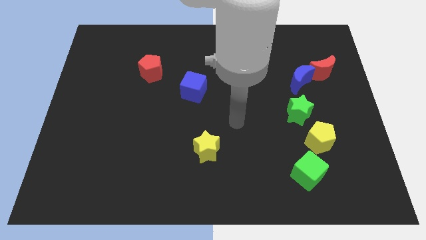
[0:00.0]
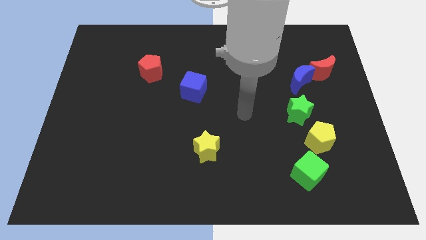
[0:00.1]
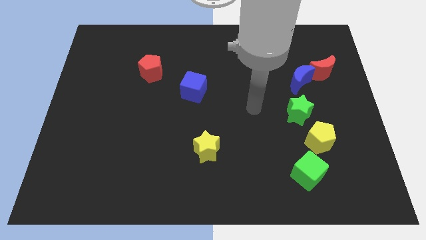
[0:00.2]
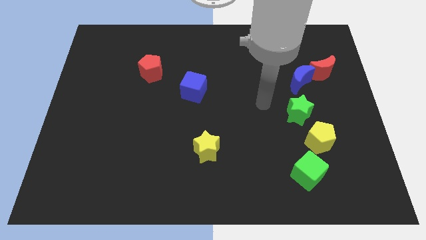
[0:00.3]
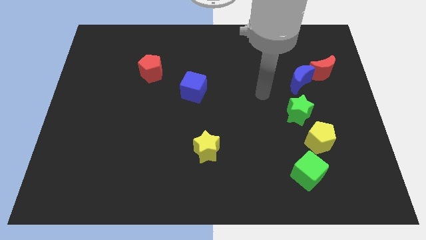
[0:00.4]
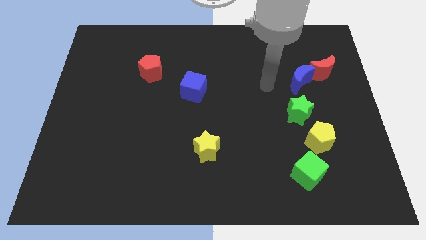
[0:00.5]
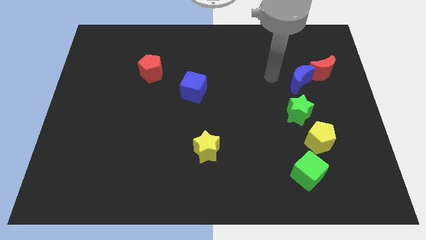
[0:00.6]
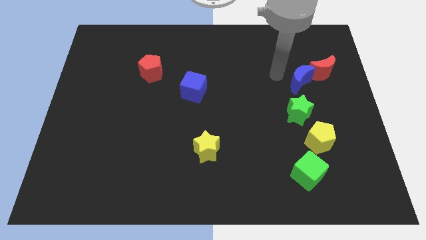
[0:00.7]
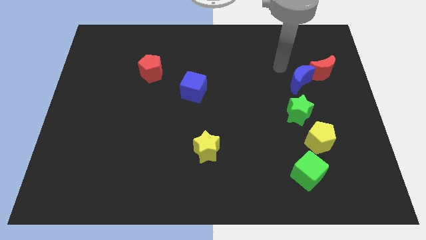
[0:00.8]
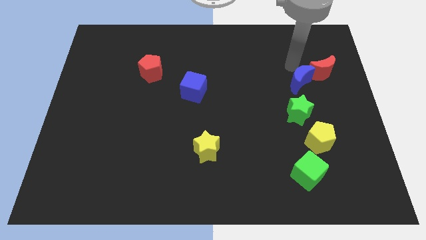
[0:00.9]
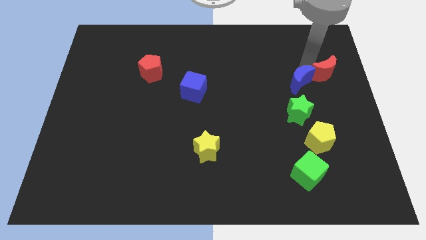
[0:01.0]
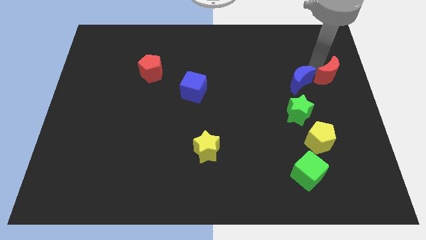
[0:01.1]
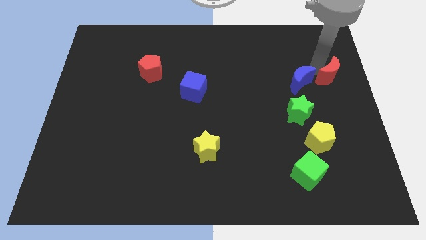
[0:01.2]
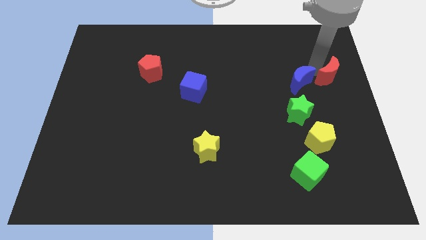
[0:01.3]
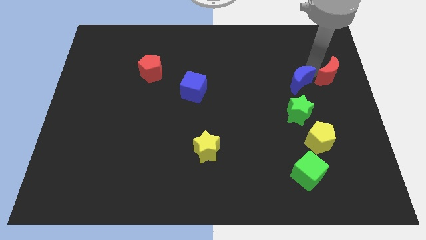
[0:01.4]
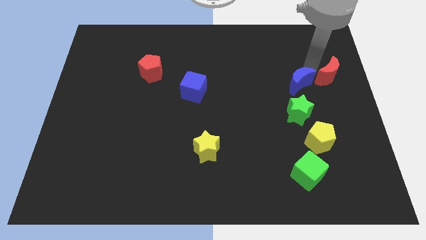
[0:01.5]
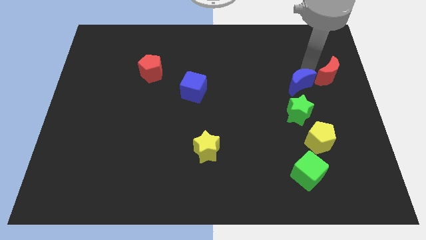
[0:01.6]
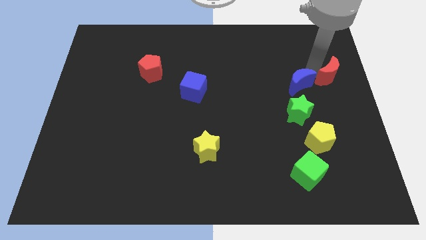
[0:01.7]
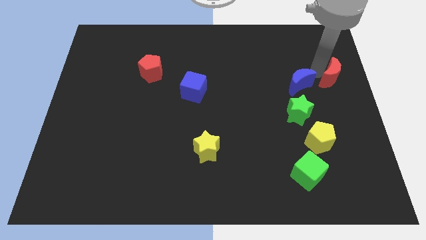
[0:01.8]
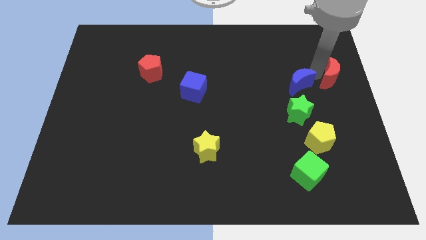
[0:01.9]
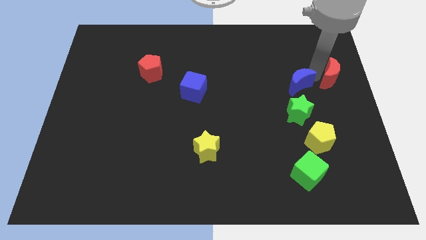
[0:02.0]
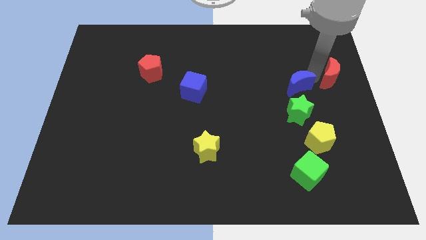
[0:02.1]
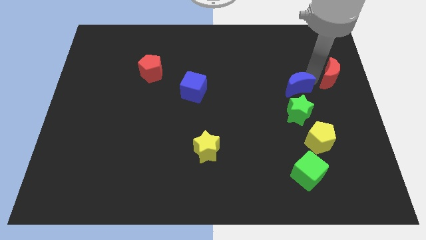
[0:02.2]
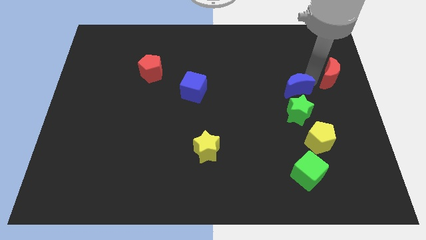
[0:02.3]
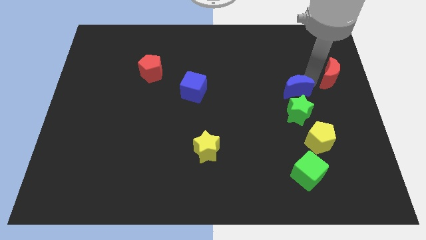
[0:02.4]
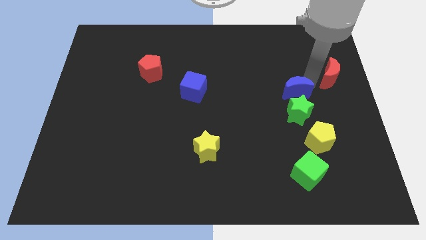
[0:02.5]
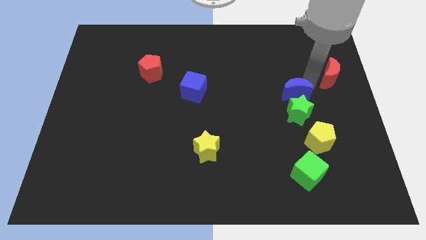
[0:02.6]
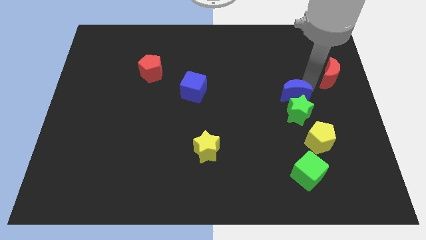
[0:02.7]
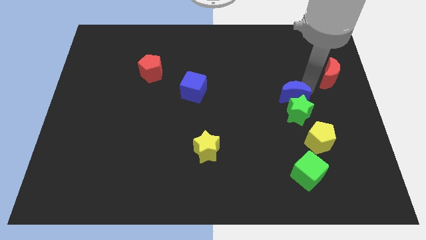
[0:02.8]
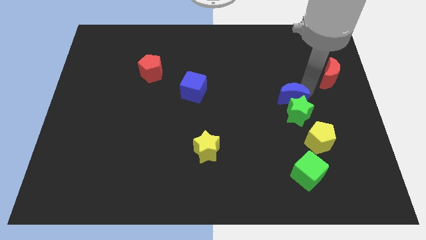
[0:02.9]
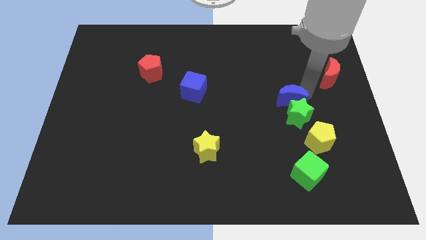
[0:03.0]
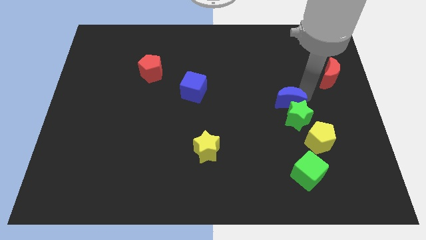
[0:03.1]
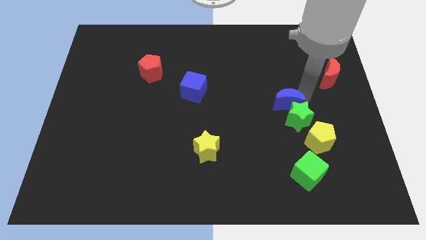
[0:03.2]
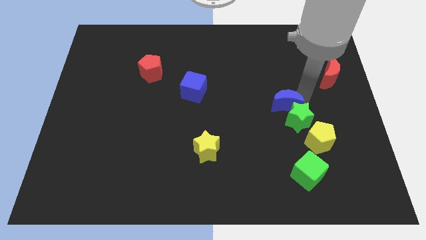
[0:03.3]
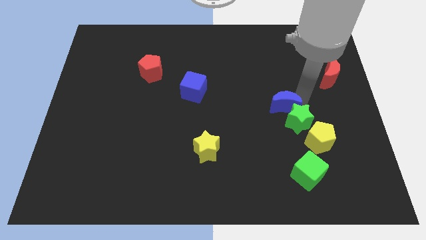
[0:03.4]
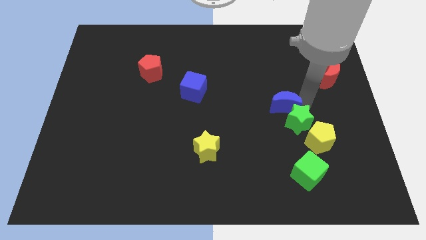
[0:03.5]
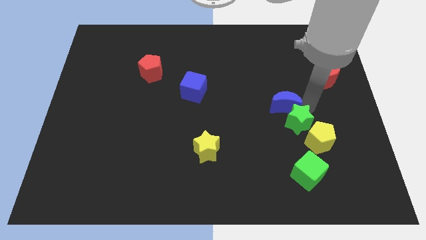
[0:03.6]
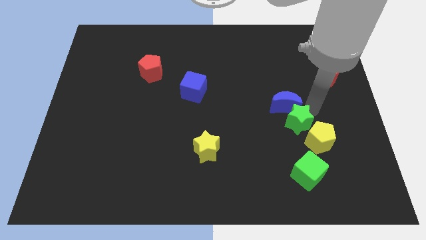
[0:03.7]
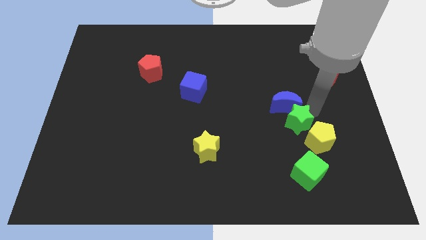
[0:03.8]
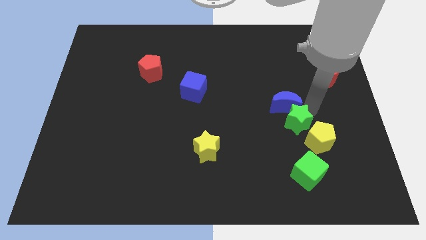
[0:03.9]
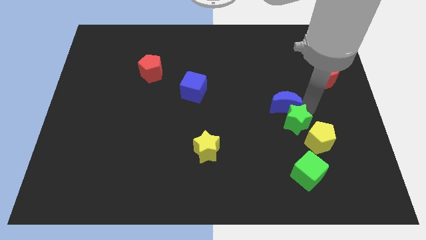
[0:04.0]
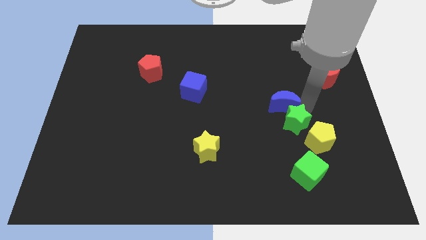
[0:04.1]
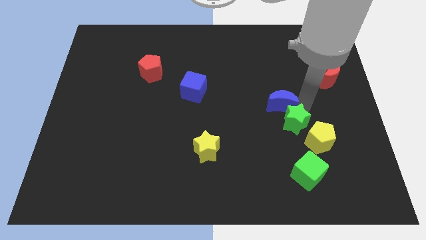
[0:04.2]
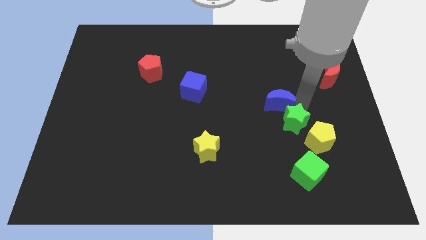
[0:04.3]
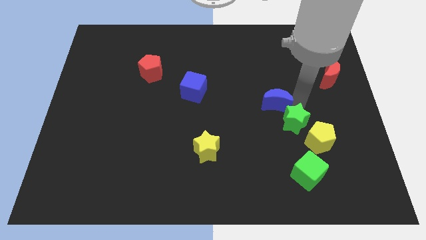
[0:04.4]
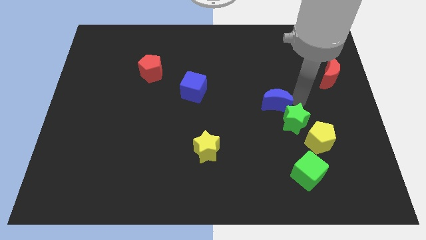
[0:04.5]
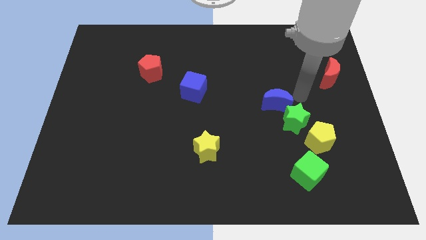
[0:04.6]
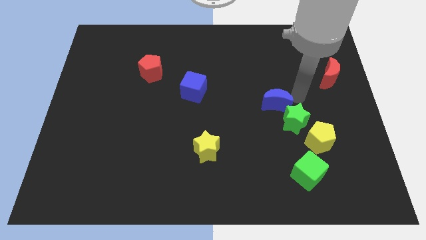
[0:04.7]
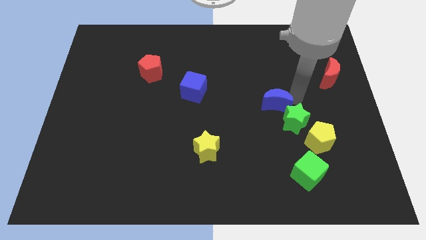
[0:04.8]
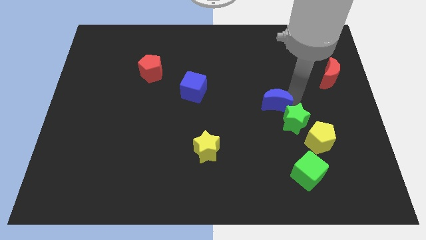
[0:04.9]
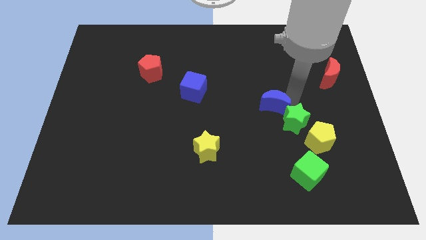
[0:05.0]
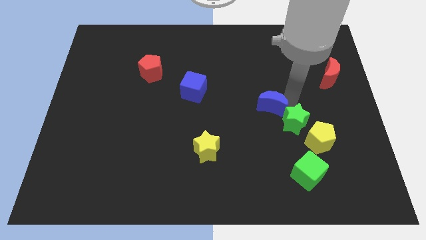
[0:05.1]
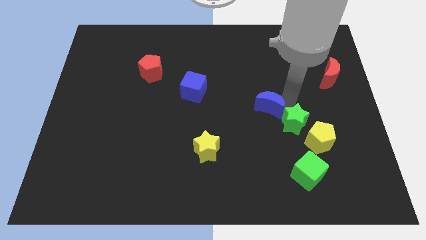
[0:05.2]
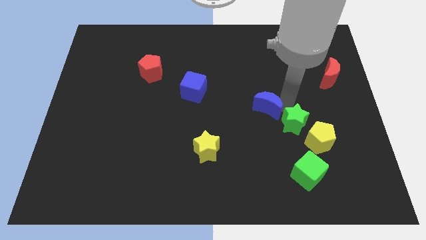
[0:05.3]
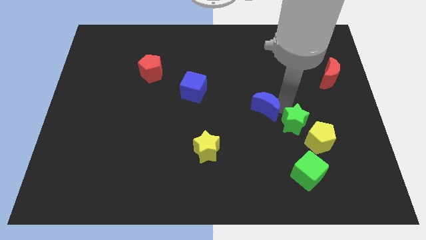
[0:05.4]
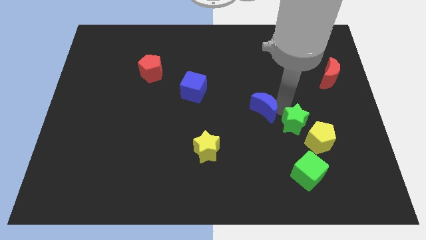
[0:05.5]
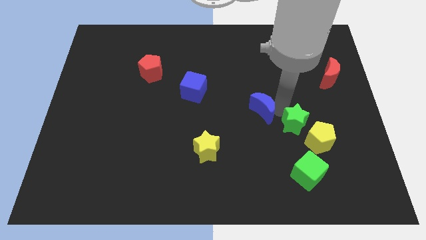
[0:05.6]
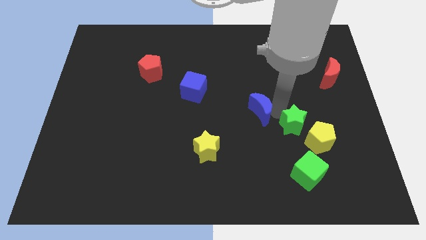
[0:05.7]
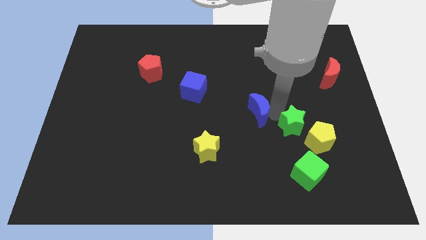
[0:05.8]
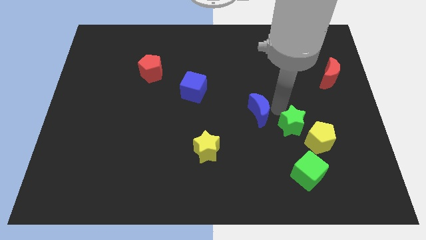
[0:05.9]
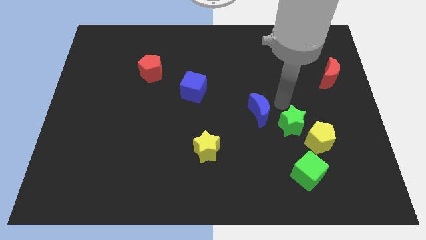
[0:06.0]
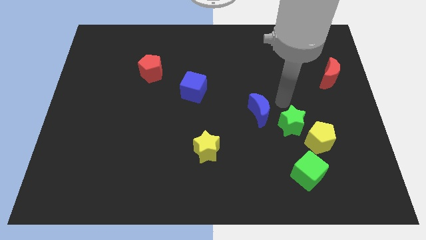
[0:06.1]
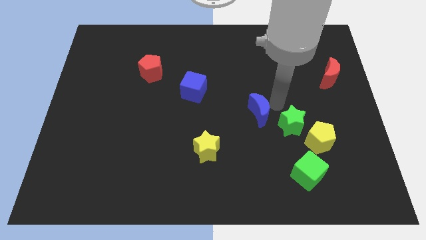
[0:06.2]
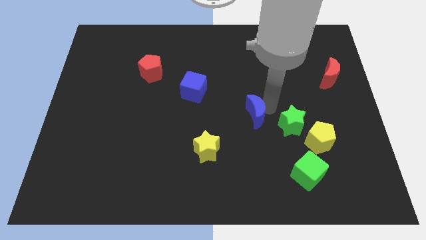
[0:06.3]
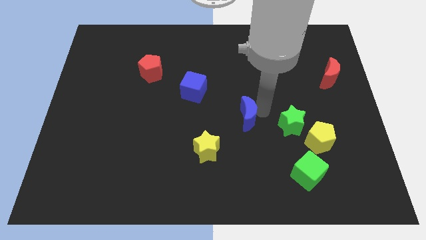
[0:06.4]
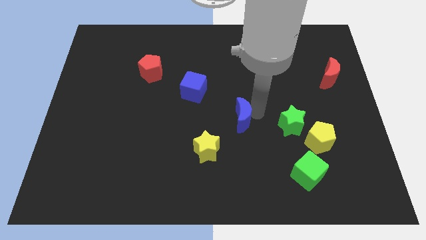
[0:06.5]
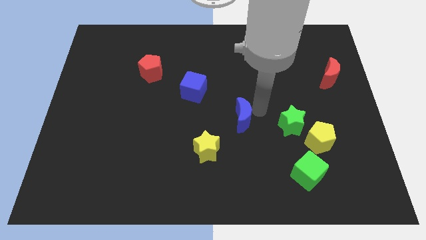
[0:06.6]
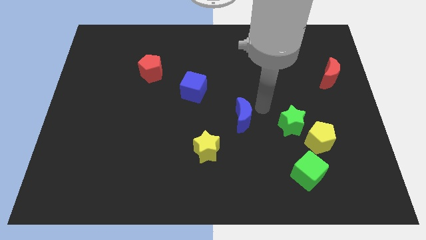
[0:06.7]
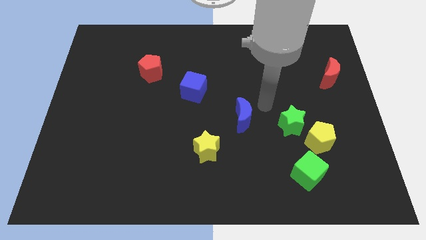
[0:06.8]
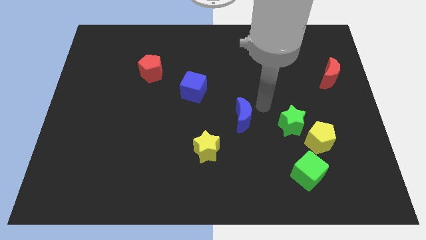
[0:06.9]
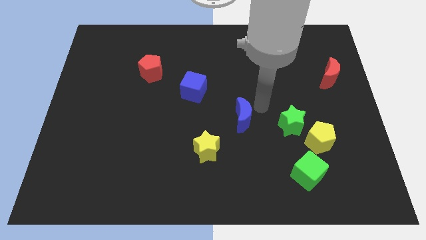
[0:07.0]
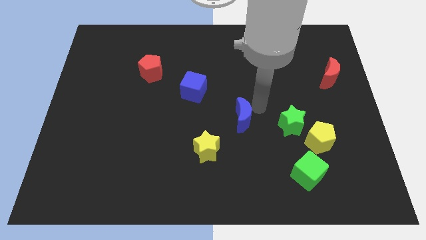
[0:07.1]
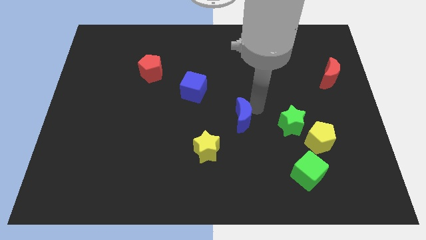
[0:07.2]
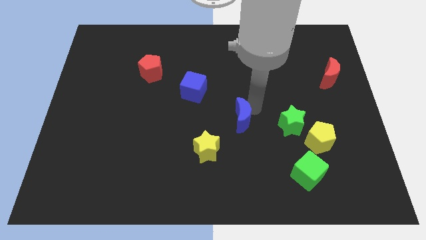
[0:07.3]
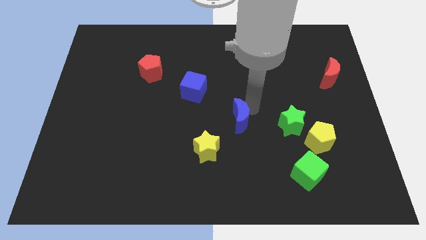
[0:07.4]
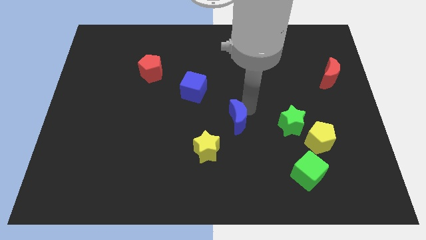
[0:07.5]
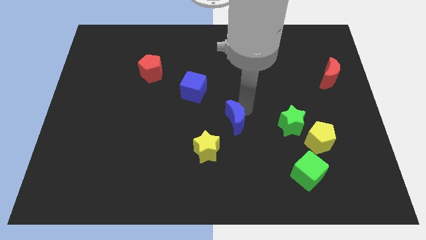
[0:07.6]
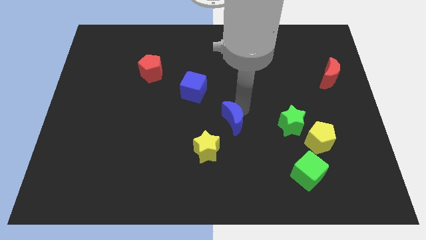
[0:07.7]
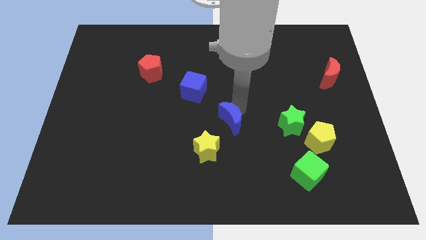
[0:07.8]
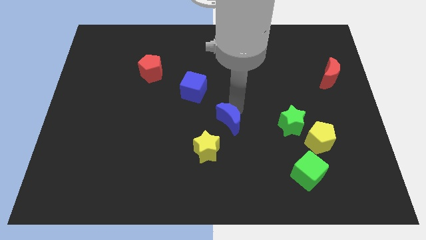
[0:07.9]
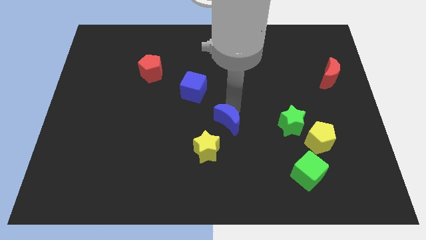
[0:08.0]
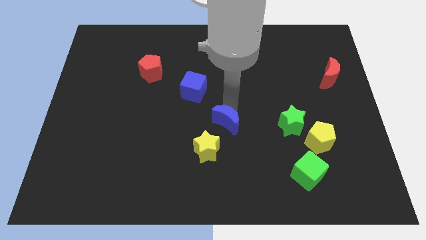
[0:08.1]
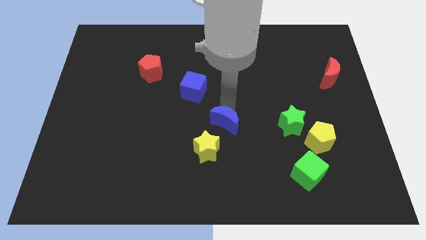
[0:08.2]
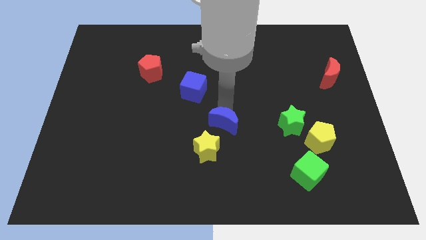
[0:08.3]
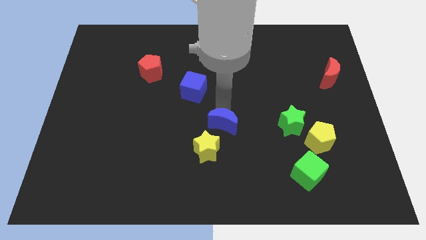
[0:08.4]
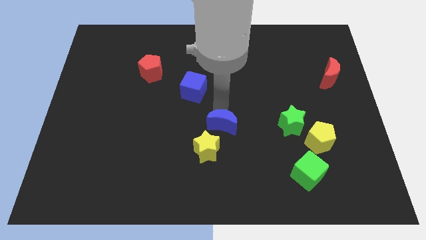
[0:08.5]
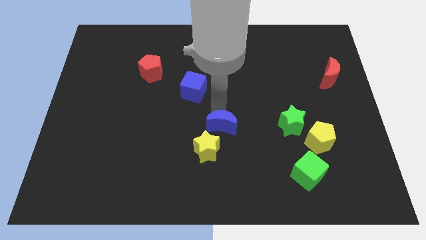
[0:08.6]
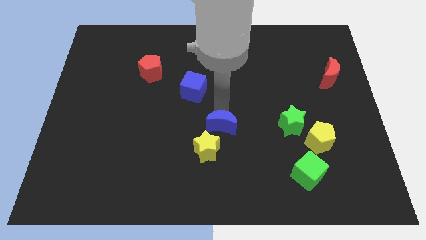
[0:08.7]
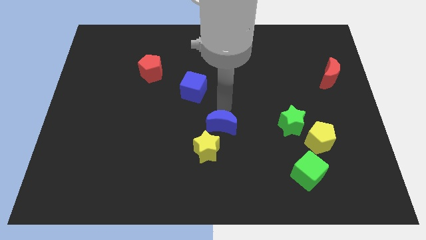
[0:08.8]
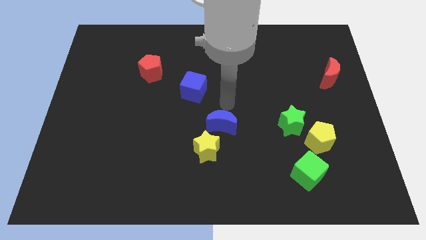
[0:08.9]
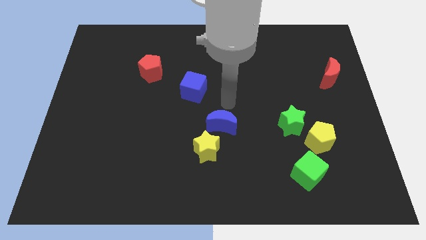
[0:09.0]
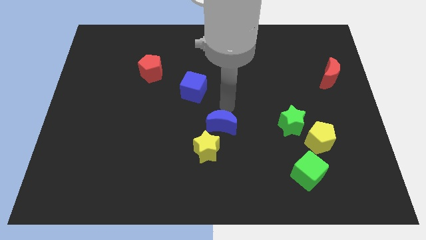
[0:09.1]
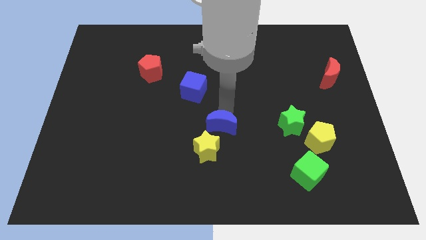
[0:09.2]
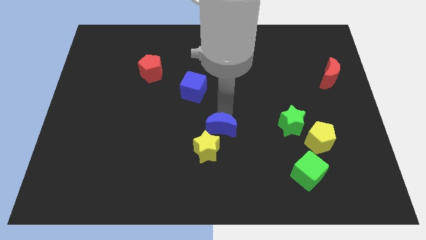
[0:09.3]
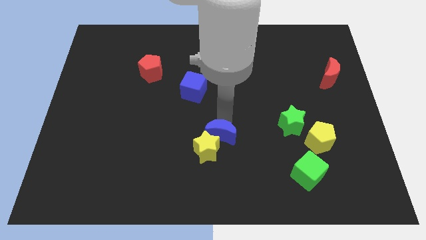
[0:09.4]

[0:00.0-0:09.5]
move the blue moon next to the yellow star
